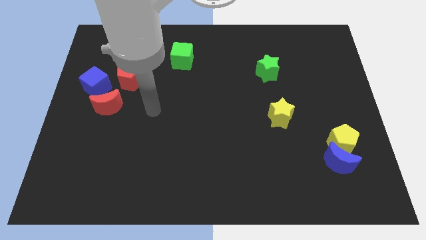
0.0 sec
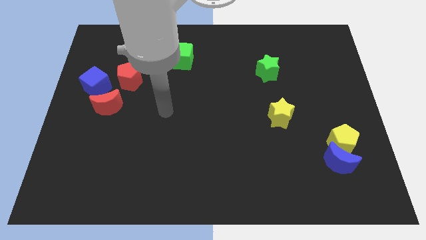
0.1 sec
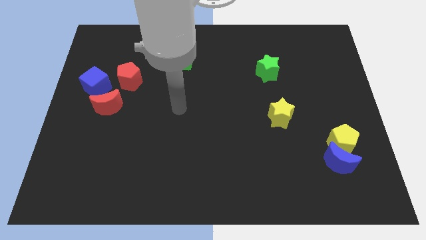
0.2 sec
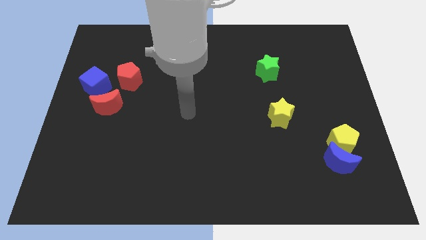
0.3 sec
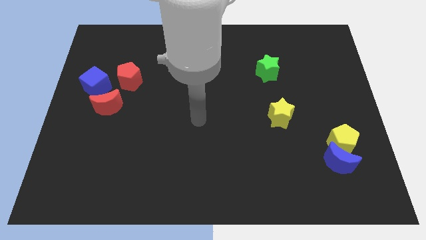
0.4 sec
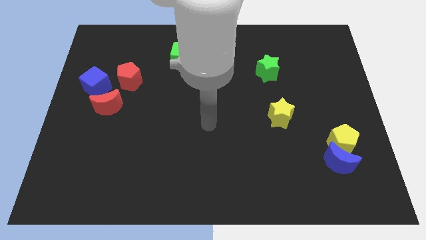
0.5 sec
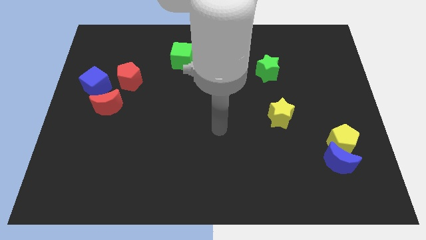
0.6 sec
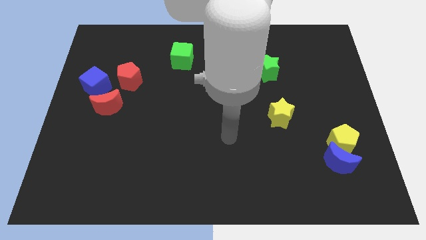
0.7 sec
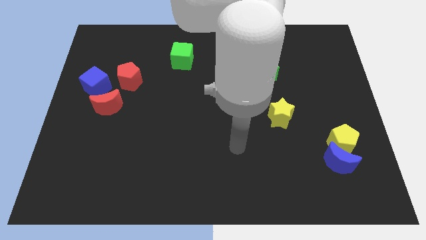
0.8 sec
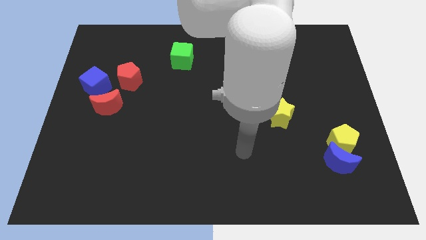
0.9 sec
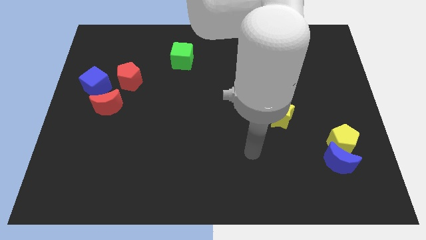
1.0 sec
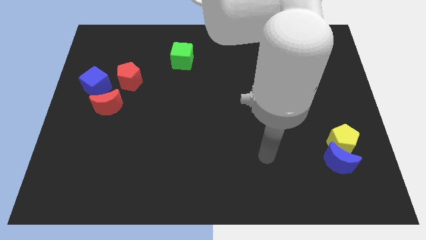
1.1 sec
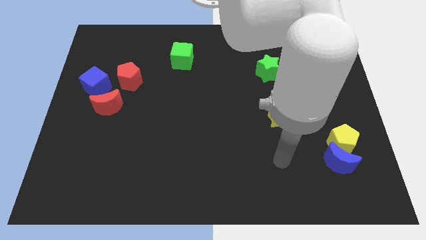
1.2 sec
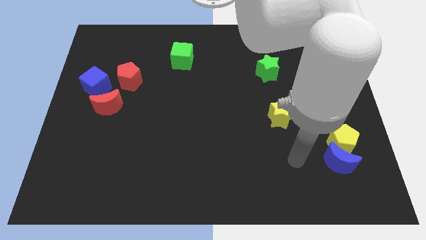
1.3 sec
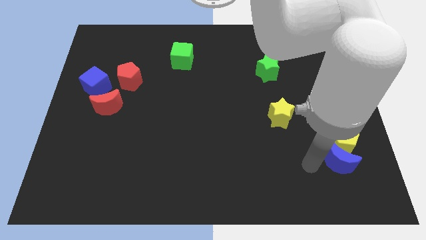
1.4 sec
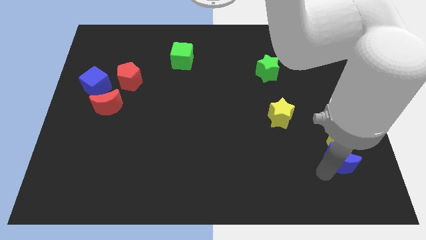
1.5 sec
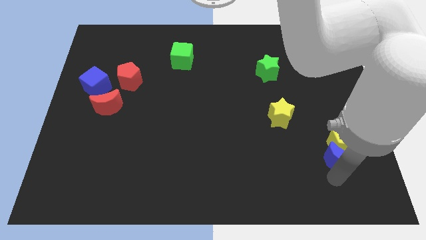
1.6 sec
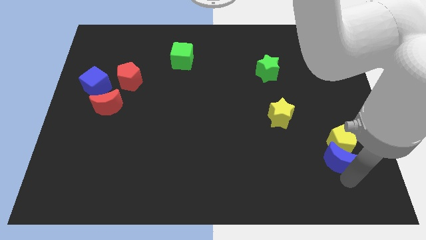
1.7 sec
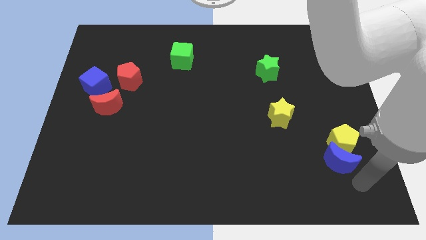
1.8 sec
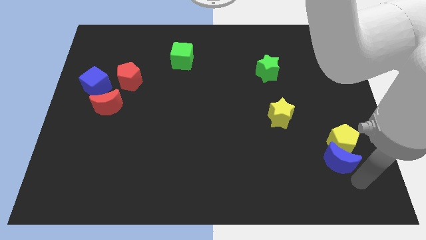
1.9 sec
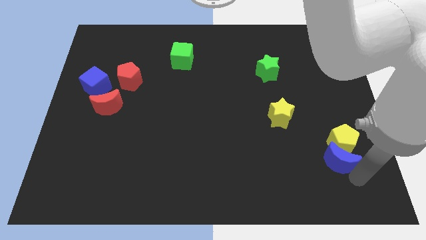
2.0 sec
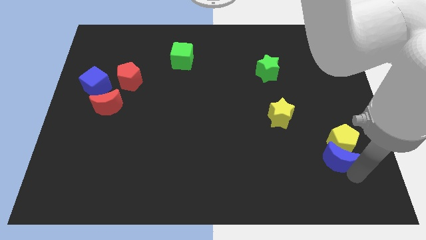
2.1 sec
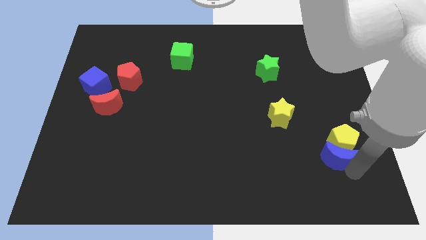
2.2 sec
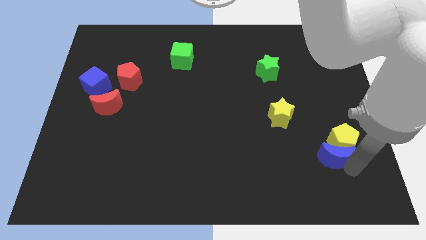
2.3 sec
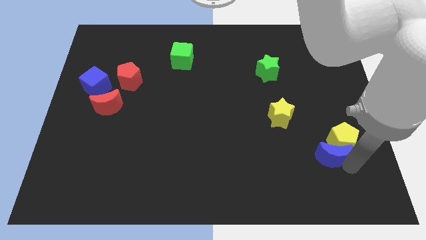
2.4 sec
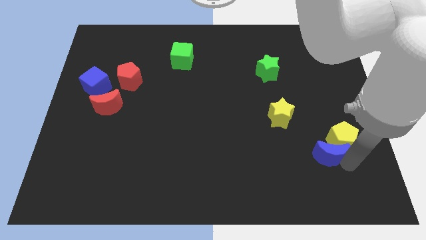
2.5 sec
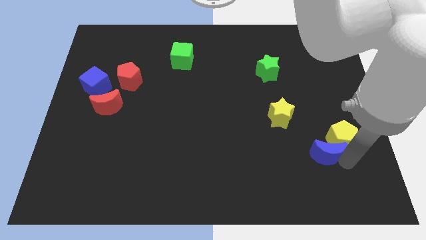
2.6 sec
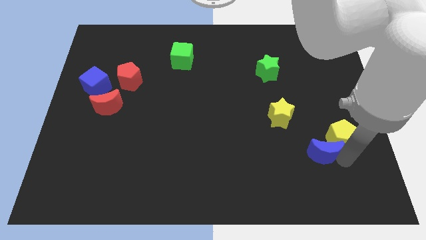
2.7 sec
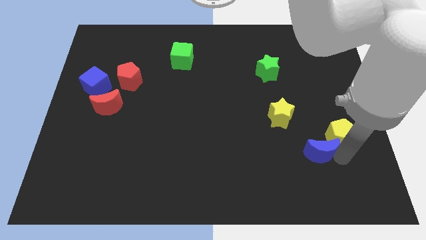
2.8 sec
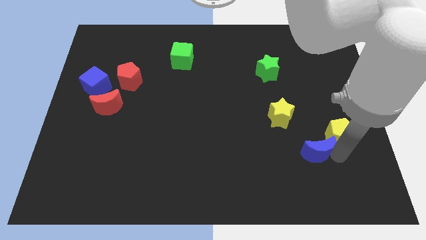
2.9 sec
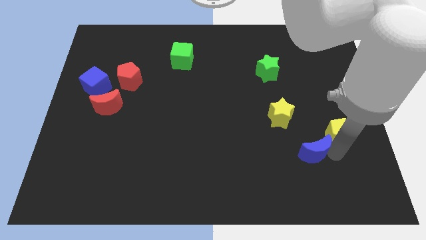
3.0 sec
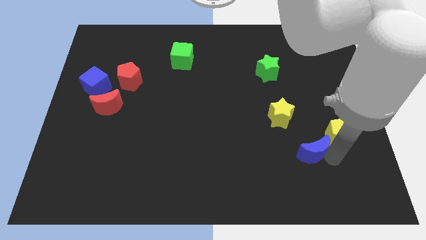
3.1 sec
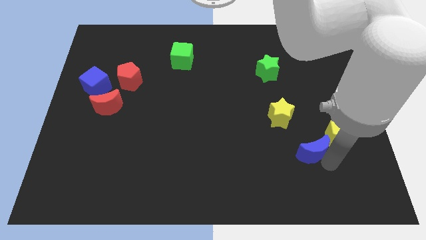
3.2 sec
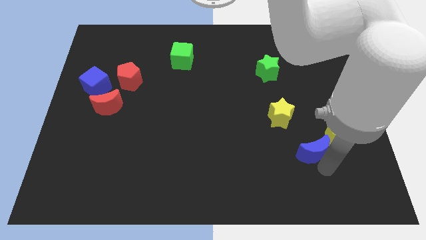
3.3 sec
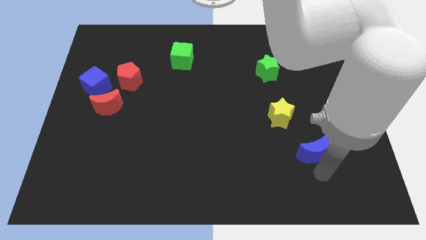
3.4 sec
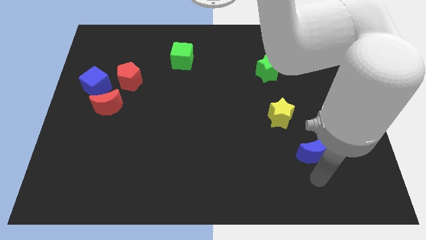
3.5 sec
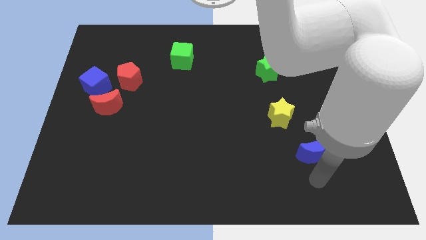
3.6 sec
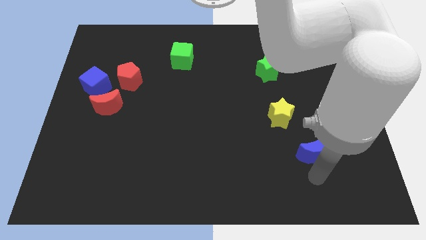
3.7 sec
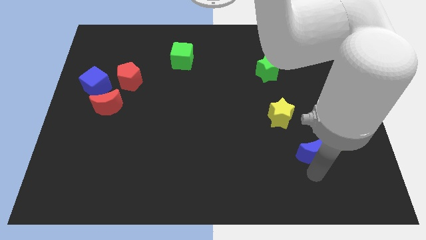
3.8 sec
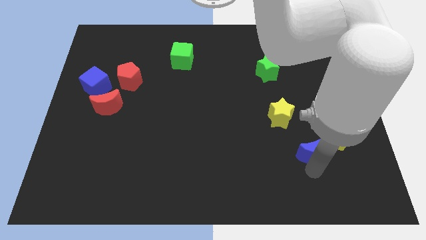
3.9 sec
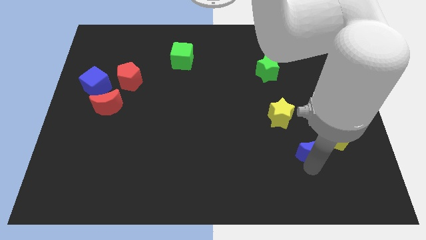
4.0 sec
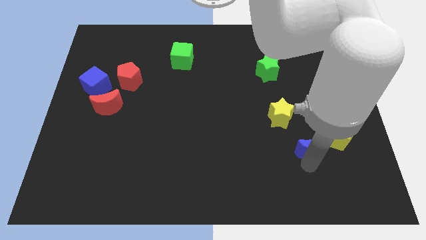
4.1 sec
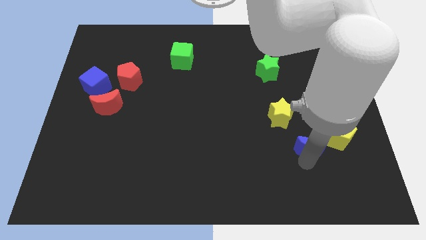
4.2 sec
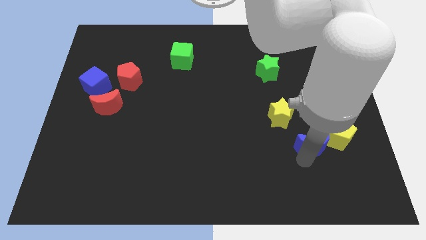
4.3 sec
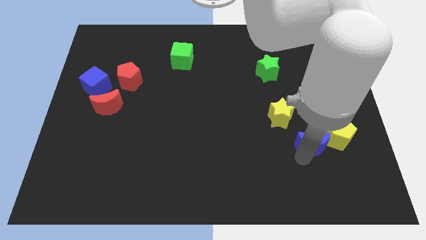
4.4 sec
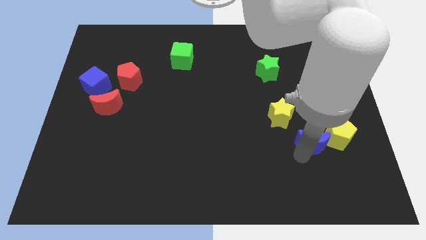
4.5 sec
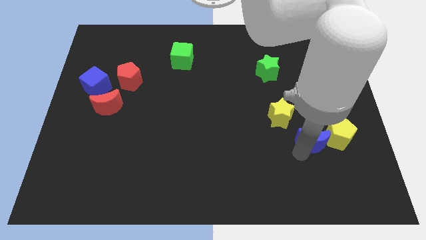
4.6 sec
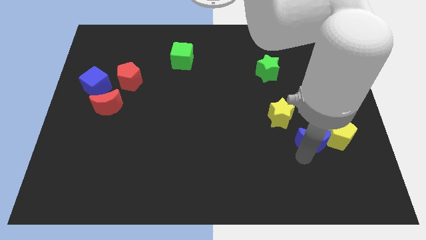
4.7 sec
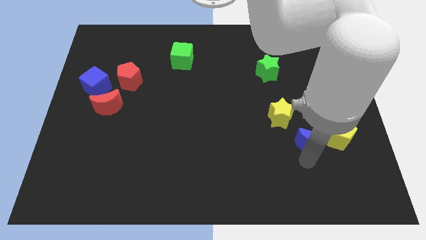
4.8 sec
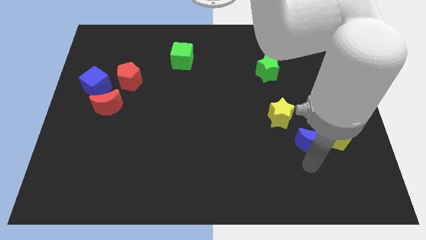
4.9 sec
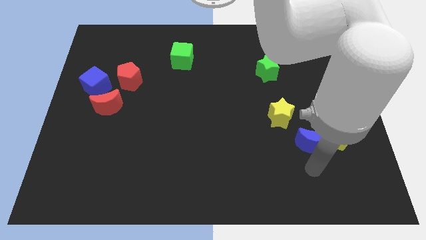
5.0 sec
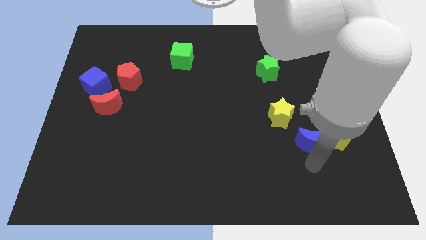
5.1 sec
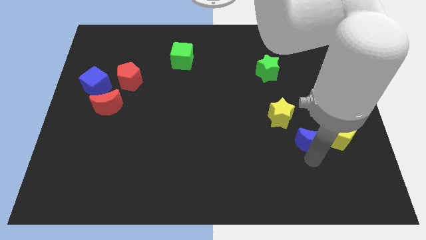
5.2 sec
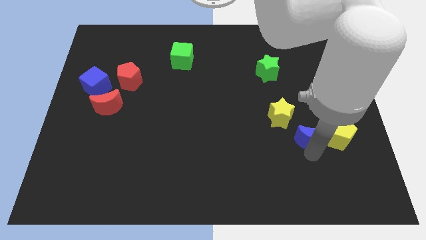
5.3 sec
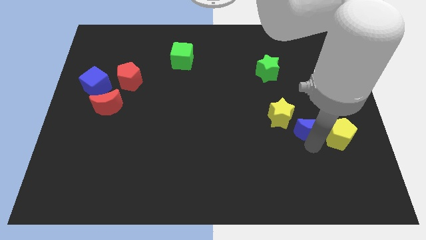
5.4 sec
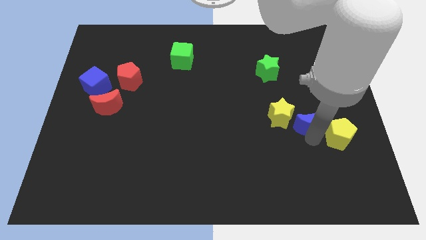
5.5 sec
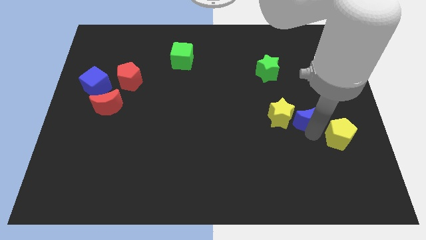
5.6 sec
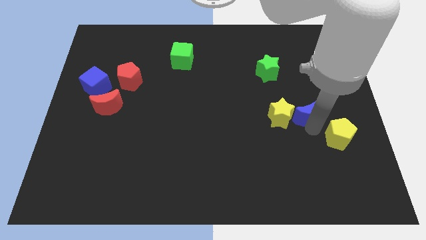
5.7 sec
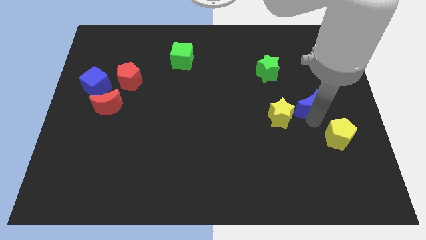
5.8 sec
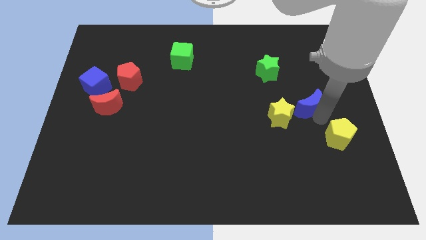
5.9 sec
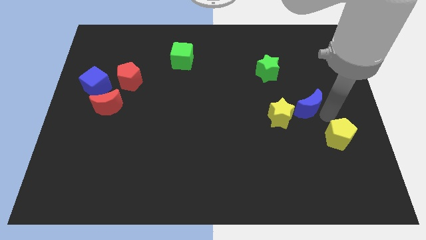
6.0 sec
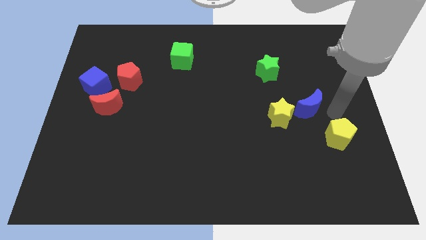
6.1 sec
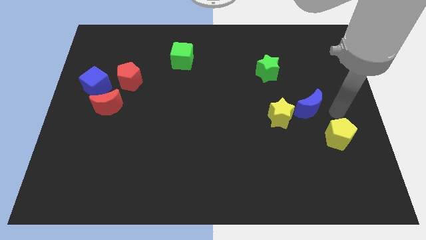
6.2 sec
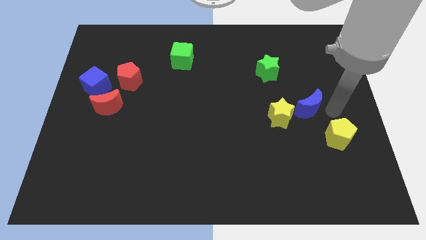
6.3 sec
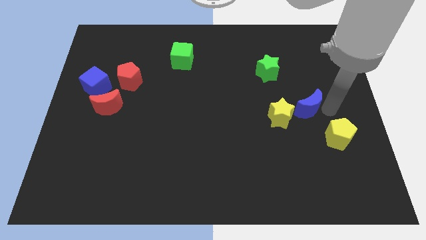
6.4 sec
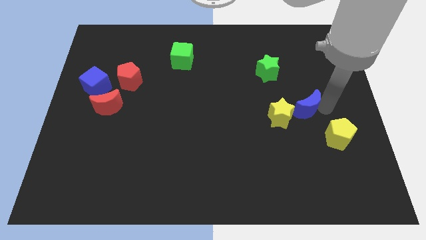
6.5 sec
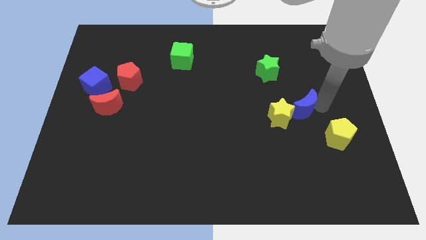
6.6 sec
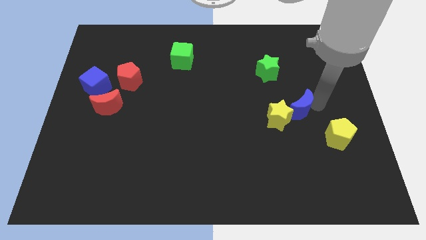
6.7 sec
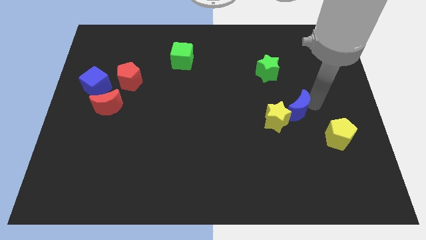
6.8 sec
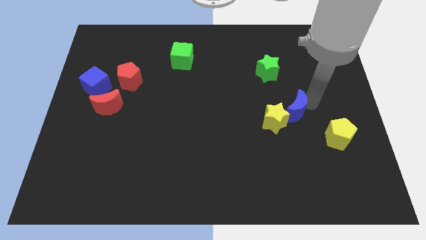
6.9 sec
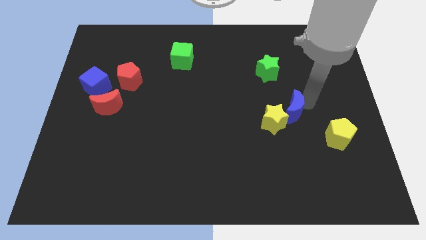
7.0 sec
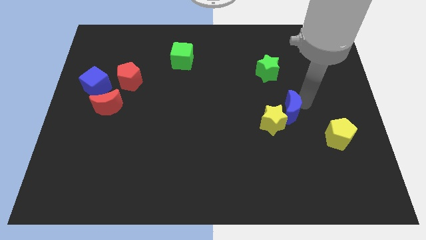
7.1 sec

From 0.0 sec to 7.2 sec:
push the blue moon below the green star
